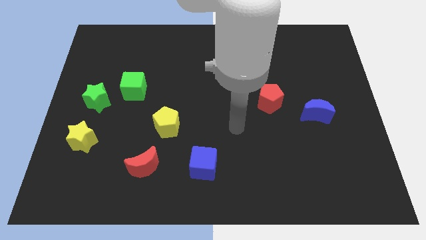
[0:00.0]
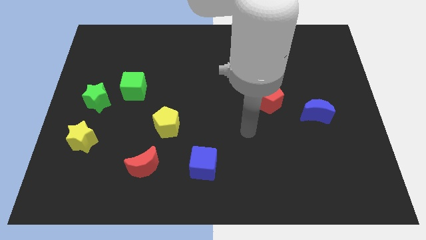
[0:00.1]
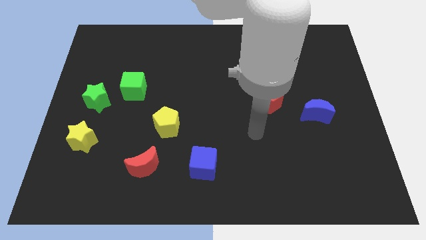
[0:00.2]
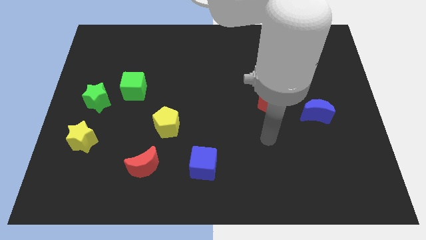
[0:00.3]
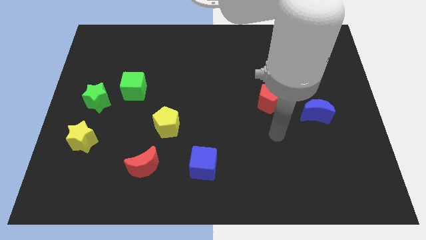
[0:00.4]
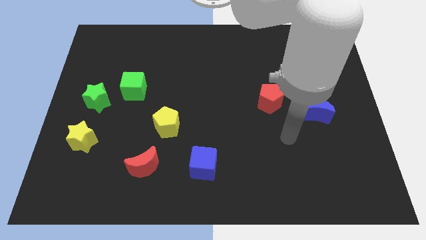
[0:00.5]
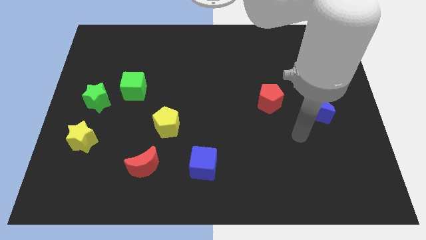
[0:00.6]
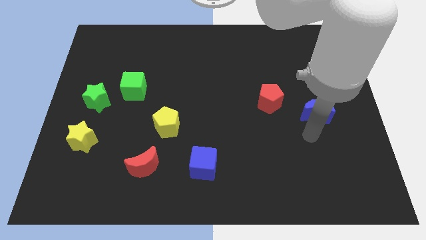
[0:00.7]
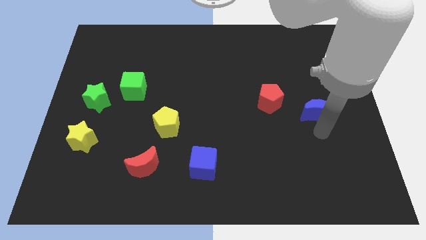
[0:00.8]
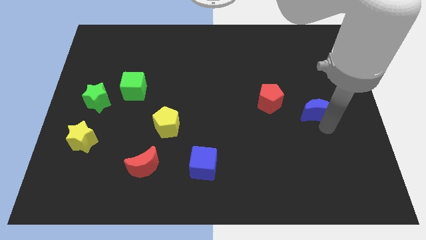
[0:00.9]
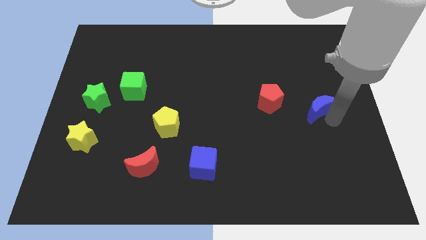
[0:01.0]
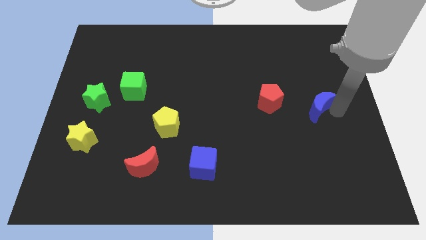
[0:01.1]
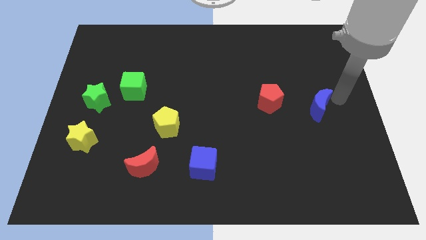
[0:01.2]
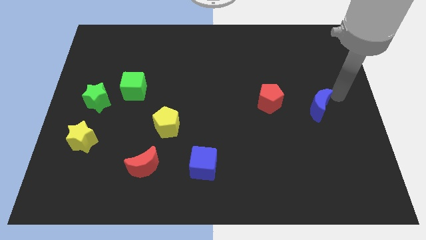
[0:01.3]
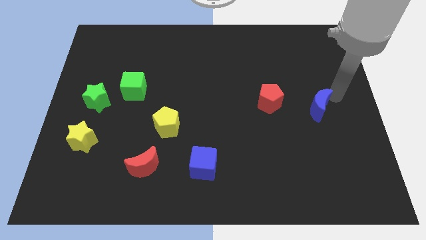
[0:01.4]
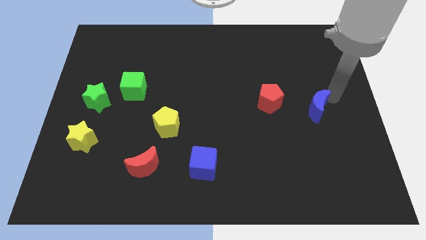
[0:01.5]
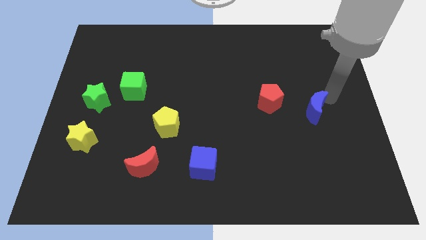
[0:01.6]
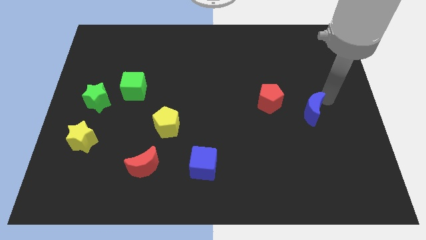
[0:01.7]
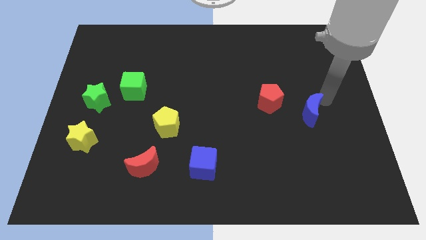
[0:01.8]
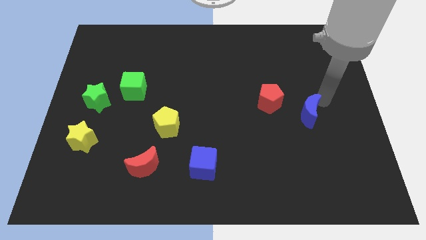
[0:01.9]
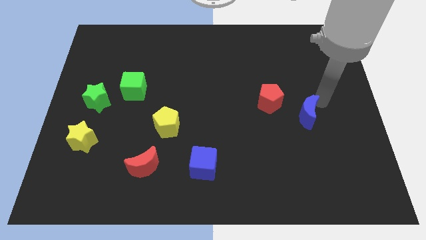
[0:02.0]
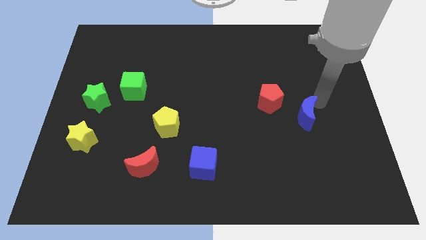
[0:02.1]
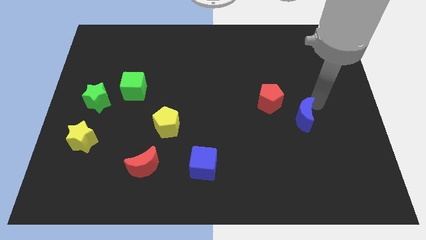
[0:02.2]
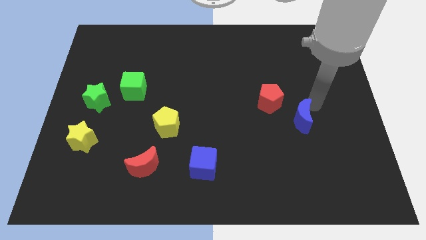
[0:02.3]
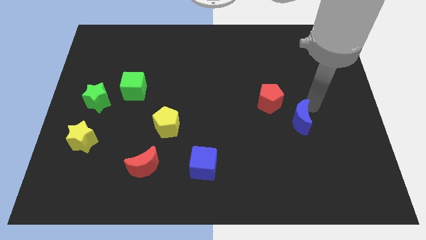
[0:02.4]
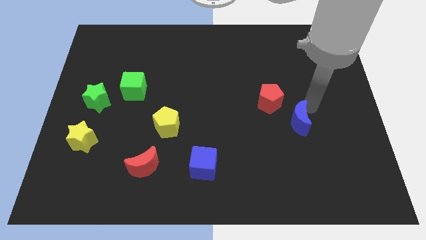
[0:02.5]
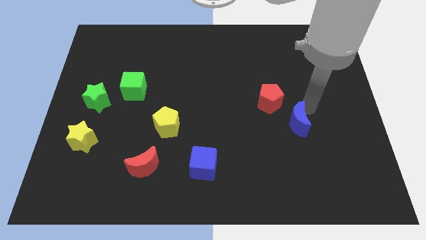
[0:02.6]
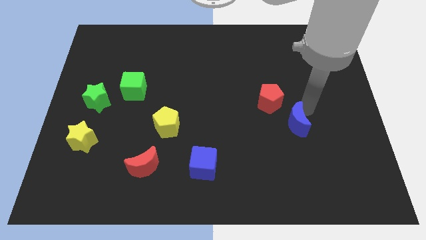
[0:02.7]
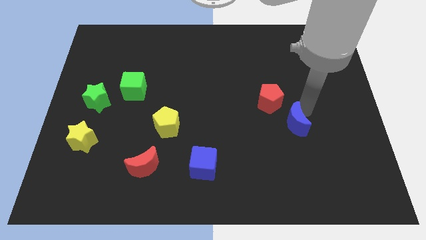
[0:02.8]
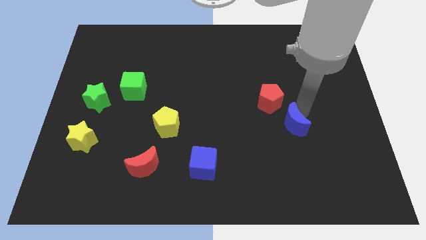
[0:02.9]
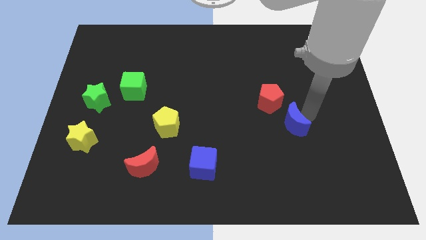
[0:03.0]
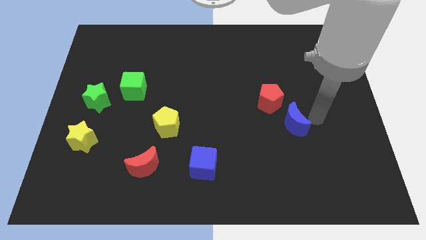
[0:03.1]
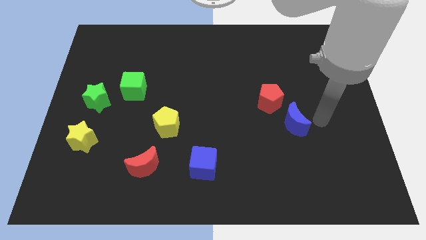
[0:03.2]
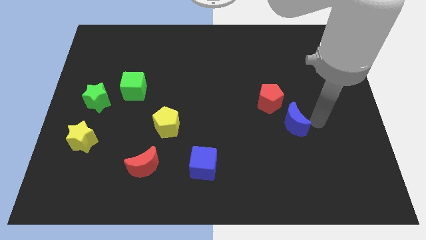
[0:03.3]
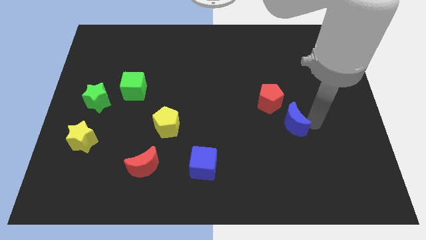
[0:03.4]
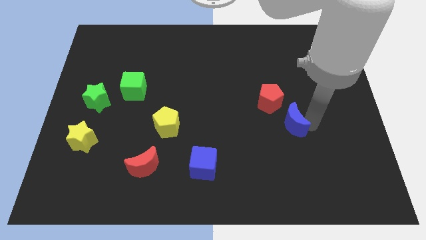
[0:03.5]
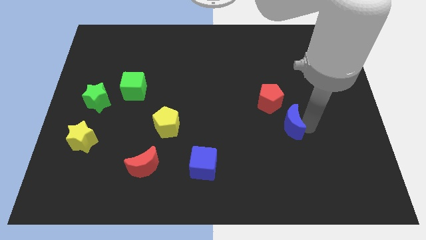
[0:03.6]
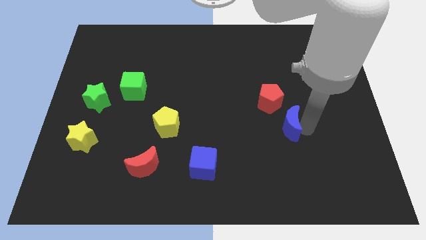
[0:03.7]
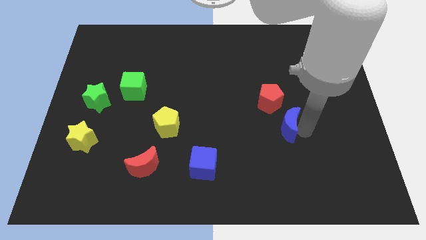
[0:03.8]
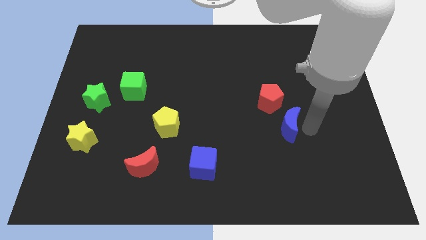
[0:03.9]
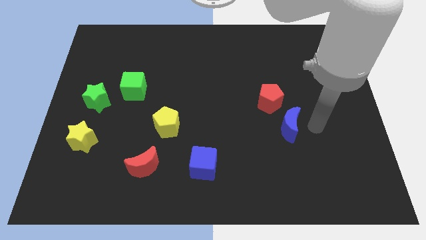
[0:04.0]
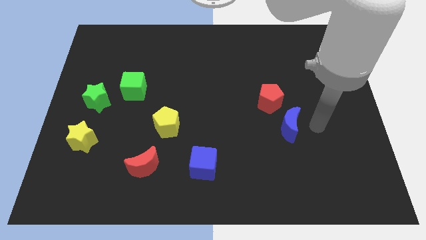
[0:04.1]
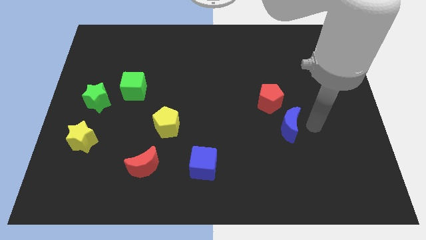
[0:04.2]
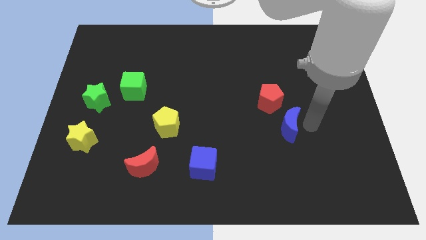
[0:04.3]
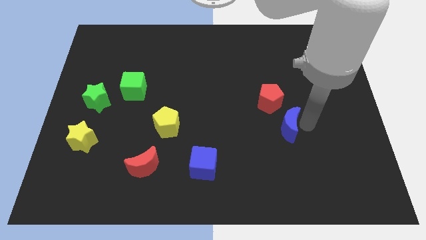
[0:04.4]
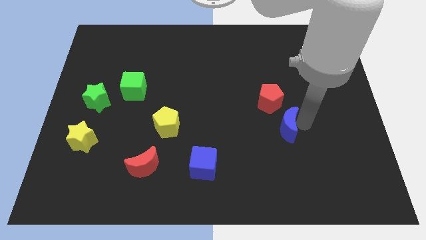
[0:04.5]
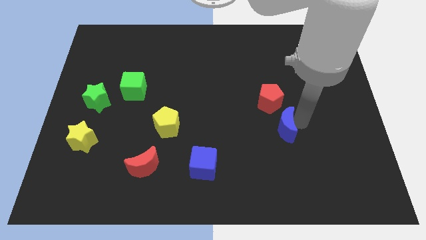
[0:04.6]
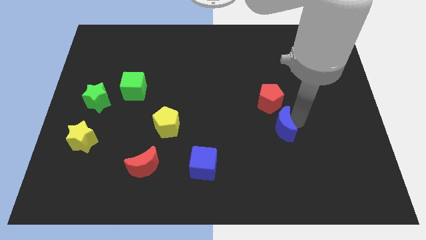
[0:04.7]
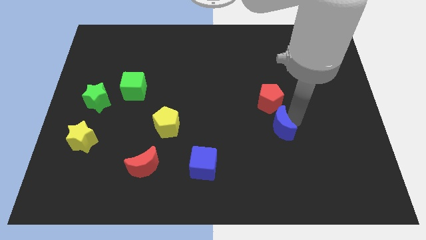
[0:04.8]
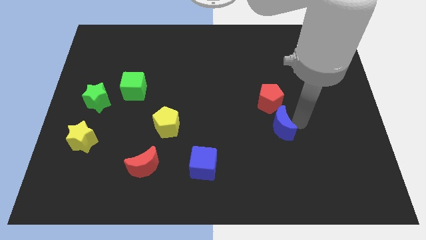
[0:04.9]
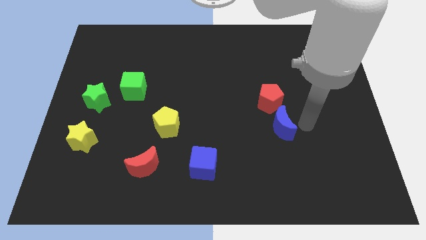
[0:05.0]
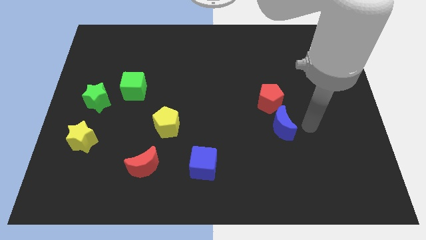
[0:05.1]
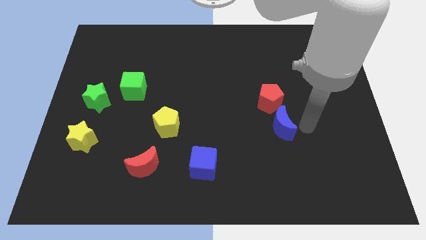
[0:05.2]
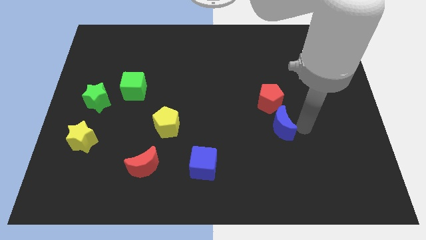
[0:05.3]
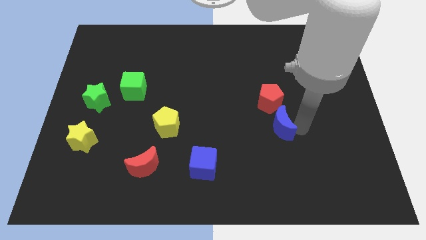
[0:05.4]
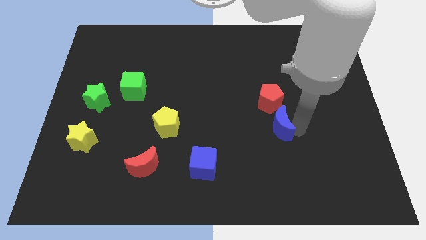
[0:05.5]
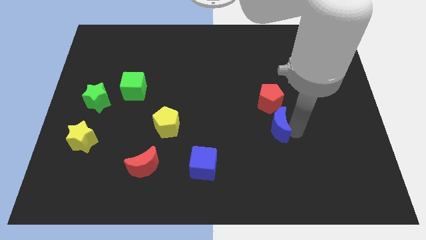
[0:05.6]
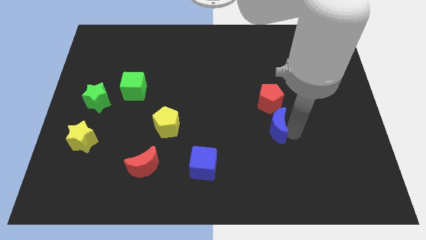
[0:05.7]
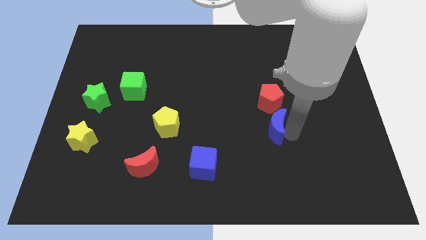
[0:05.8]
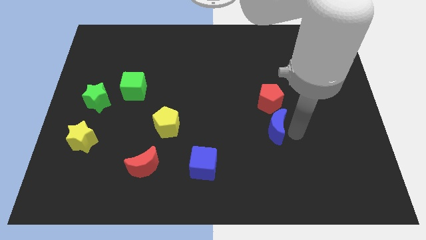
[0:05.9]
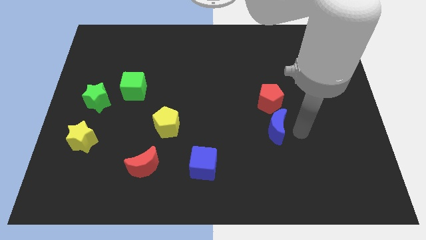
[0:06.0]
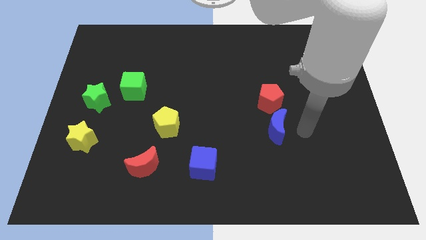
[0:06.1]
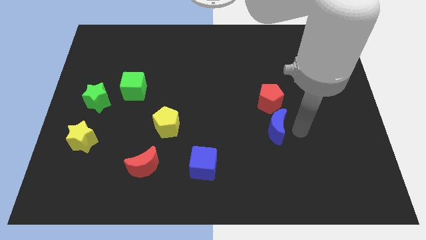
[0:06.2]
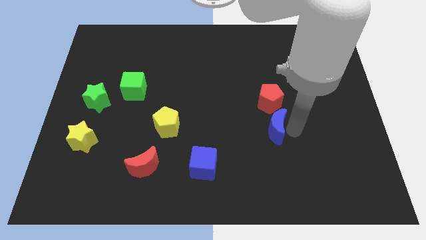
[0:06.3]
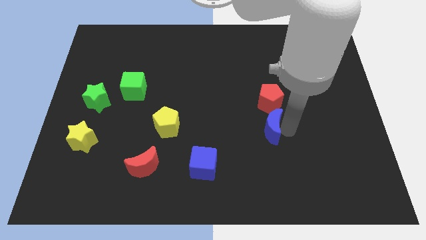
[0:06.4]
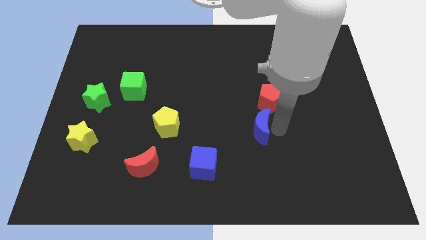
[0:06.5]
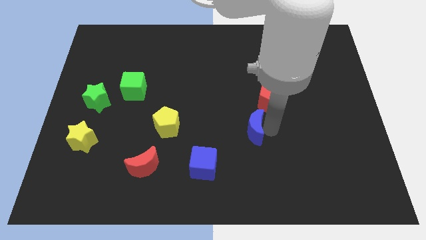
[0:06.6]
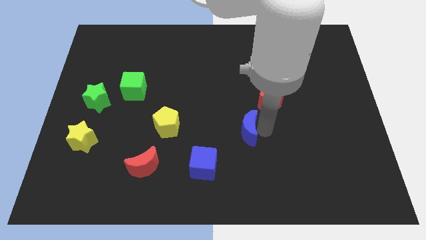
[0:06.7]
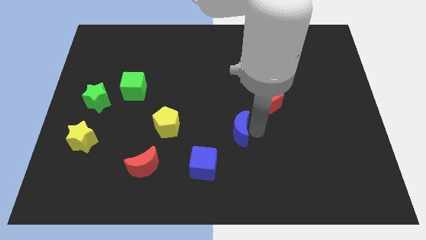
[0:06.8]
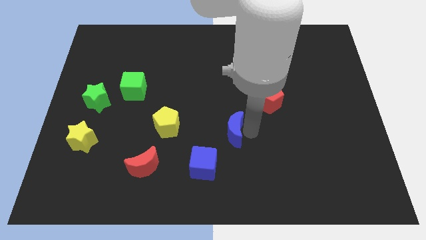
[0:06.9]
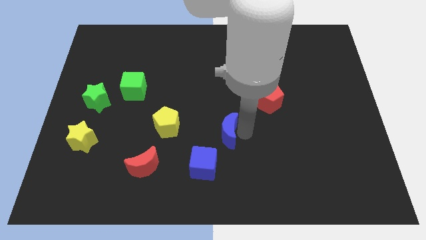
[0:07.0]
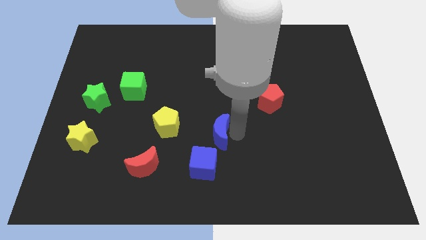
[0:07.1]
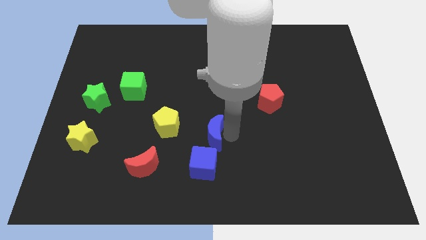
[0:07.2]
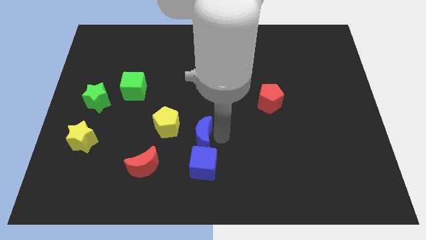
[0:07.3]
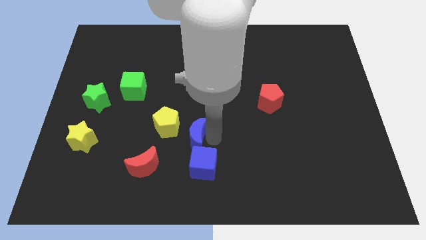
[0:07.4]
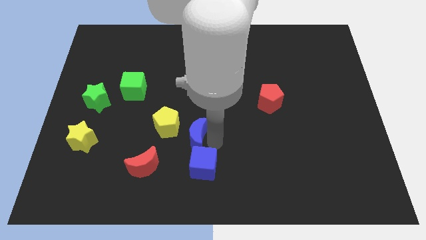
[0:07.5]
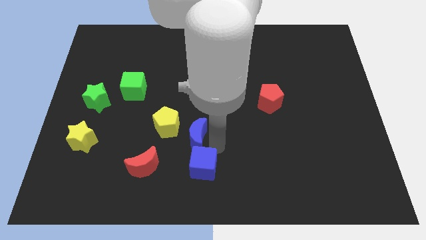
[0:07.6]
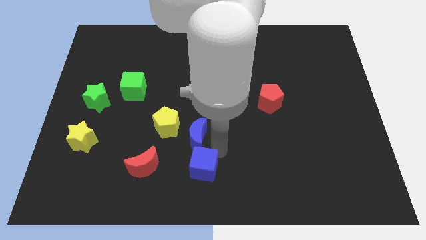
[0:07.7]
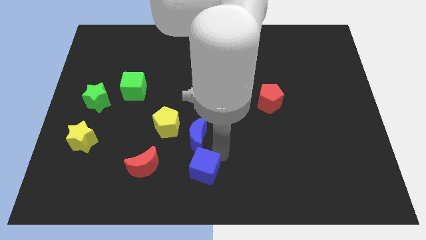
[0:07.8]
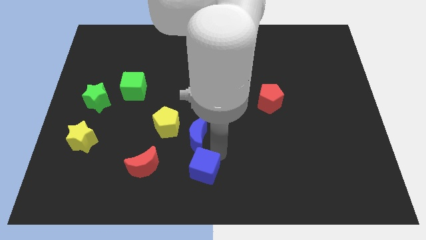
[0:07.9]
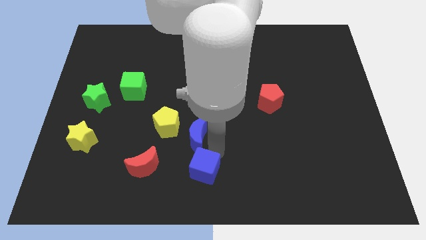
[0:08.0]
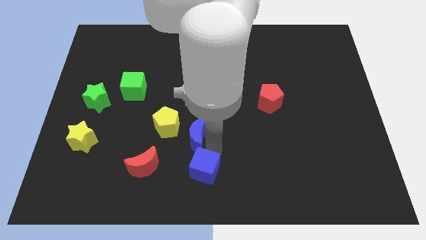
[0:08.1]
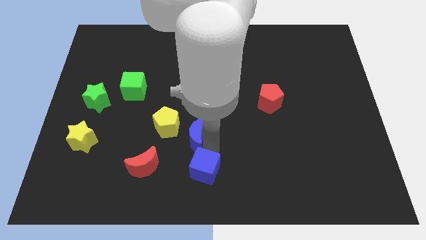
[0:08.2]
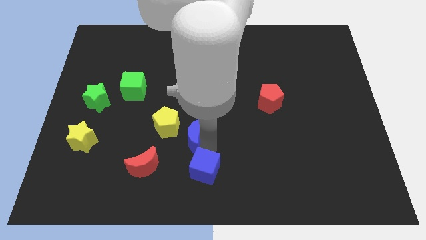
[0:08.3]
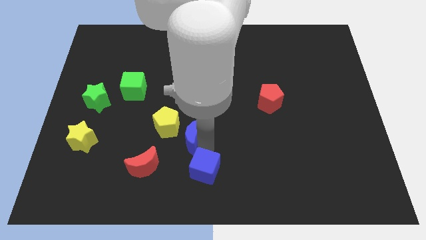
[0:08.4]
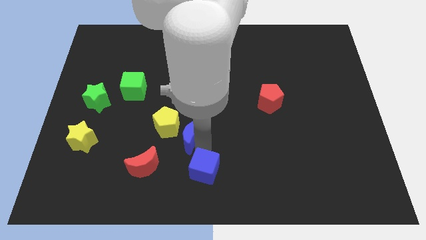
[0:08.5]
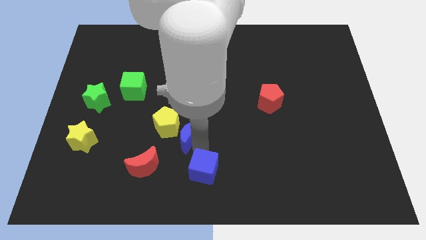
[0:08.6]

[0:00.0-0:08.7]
slide the blue moon towards the yellow pentagon
